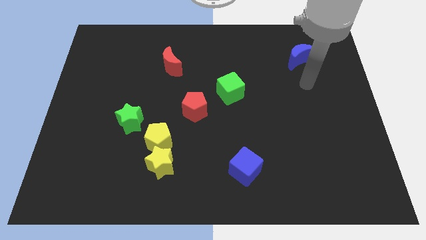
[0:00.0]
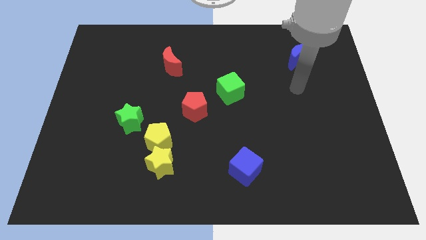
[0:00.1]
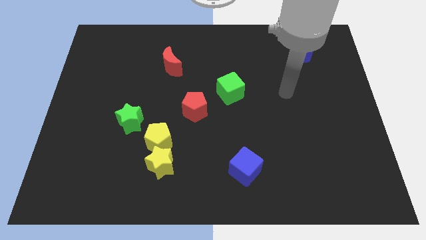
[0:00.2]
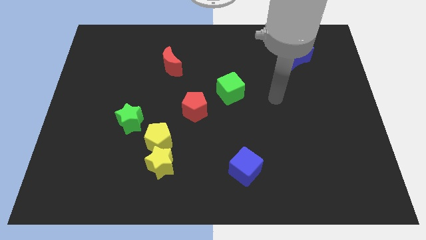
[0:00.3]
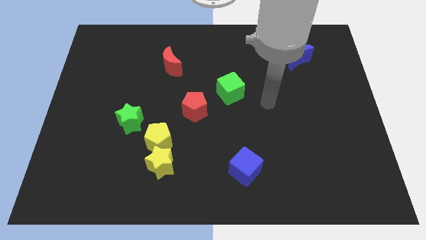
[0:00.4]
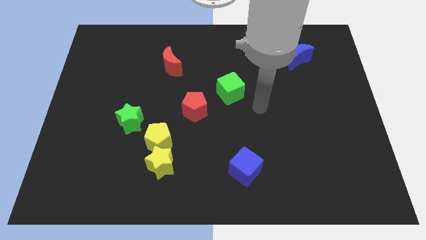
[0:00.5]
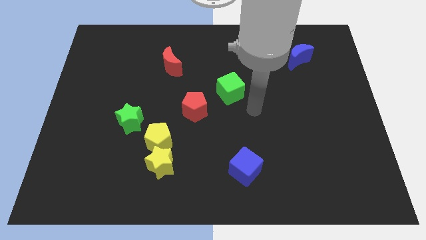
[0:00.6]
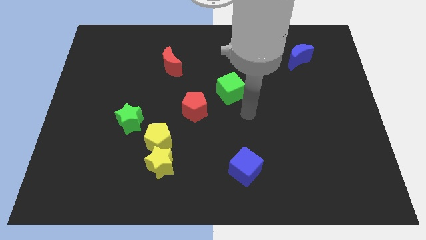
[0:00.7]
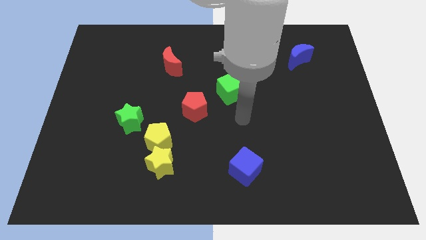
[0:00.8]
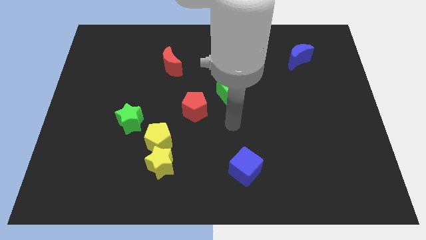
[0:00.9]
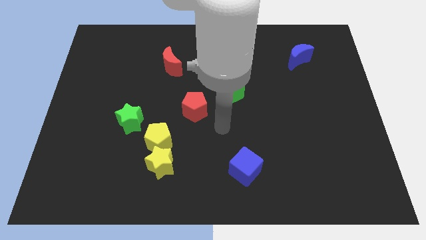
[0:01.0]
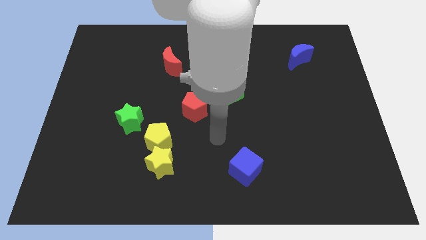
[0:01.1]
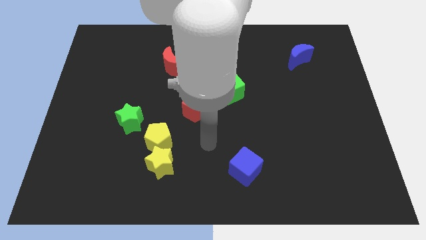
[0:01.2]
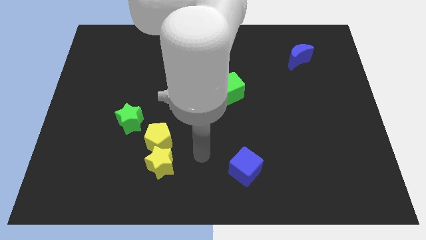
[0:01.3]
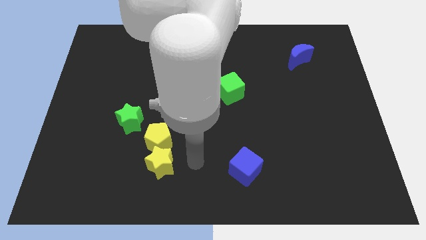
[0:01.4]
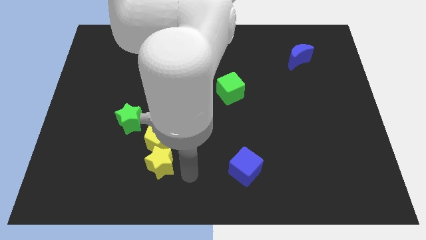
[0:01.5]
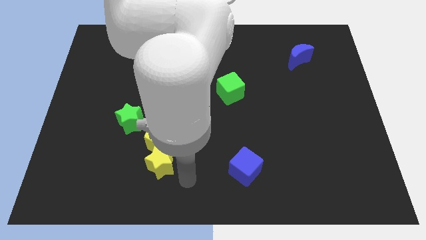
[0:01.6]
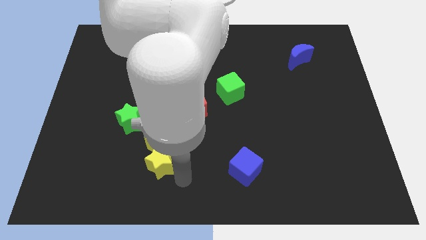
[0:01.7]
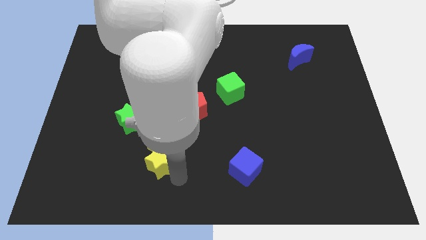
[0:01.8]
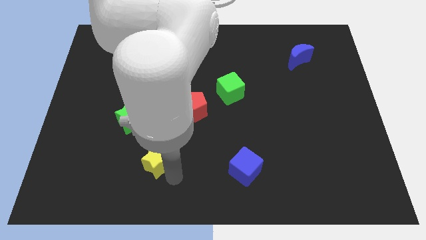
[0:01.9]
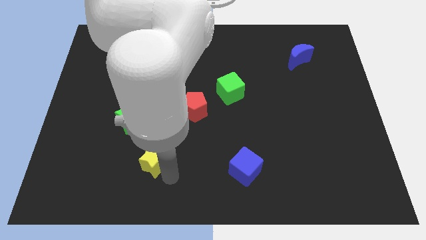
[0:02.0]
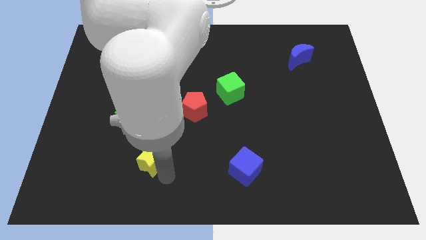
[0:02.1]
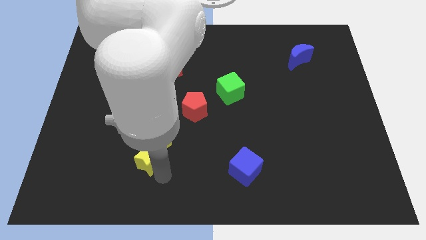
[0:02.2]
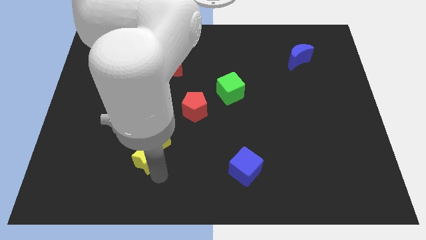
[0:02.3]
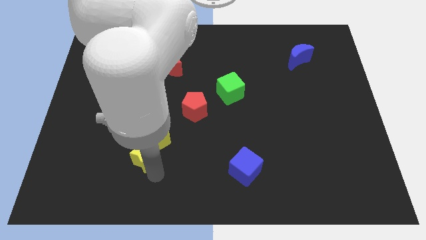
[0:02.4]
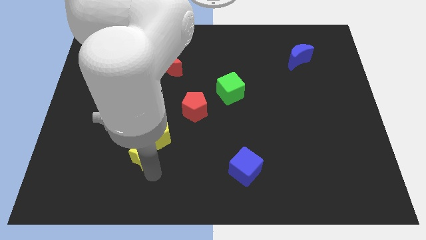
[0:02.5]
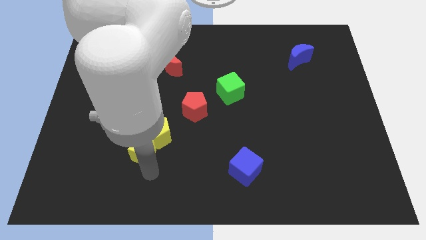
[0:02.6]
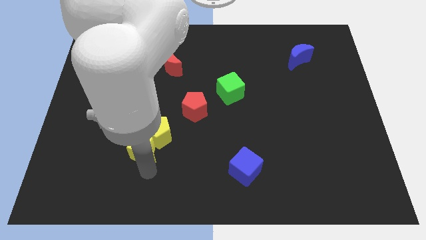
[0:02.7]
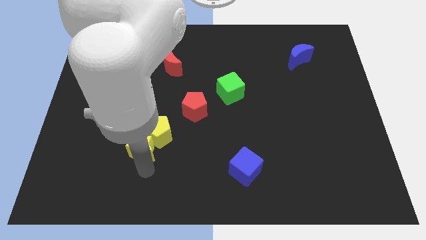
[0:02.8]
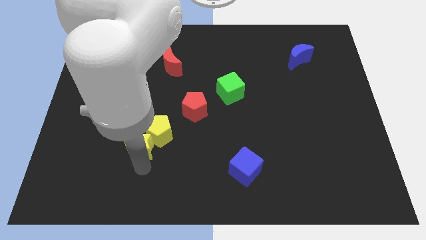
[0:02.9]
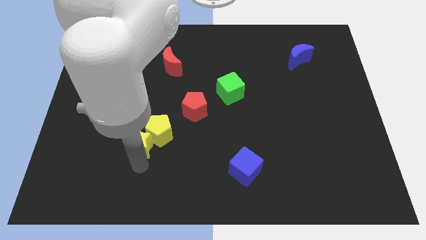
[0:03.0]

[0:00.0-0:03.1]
slide the yellow star upwards and to the left a little

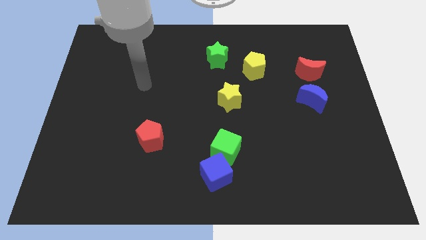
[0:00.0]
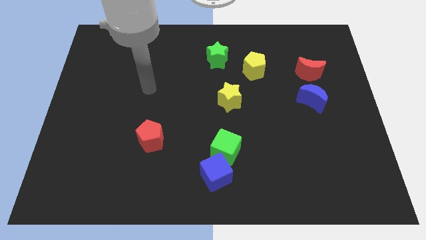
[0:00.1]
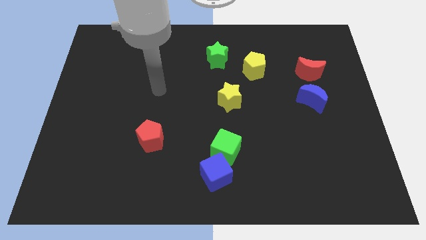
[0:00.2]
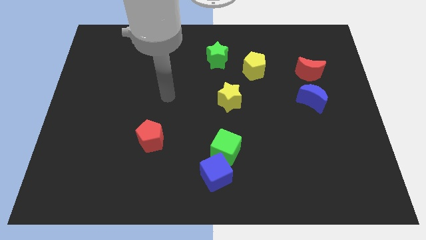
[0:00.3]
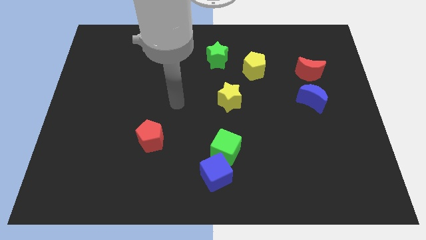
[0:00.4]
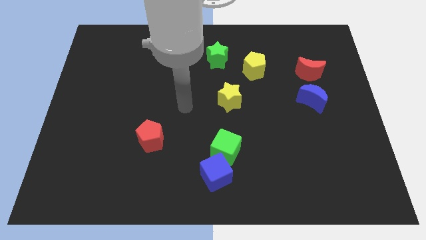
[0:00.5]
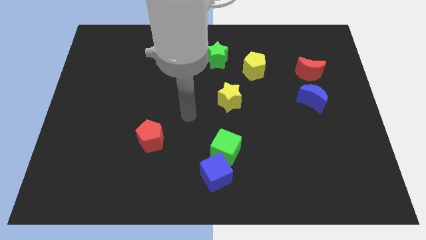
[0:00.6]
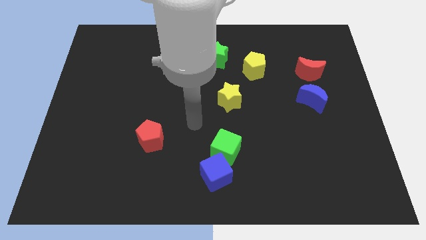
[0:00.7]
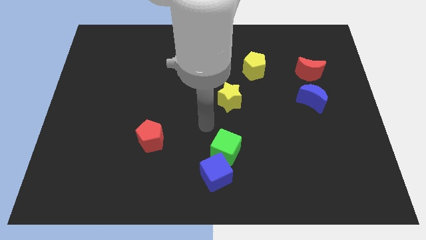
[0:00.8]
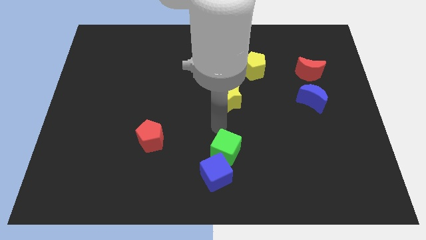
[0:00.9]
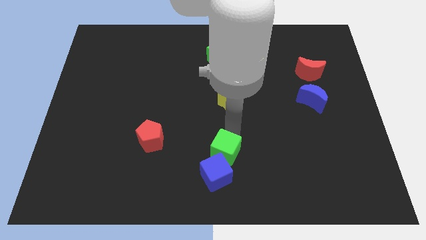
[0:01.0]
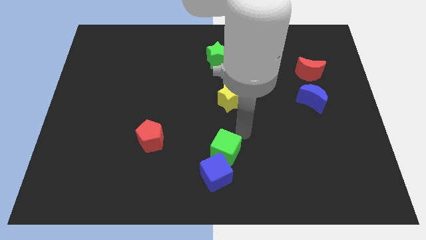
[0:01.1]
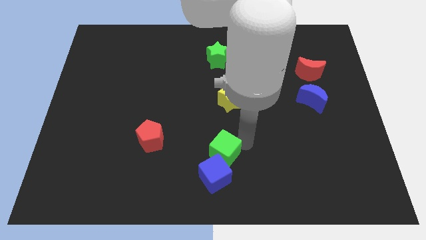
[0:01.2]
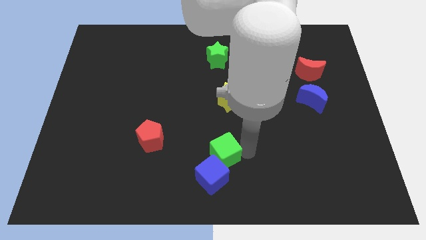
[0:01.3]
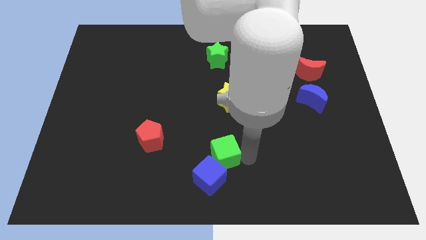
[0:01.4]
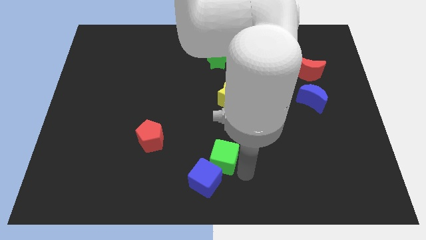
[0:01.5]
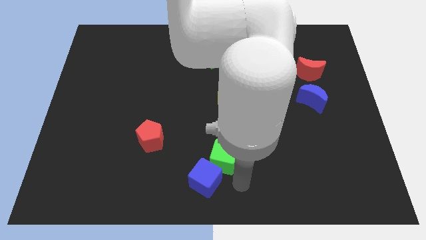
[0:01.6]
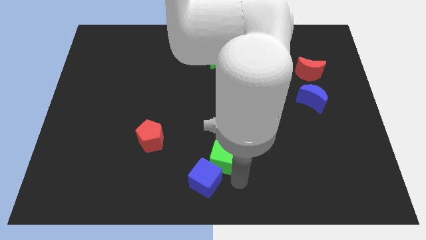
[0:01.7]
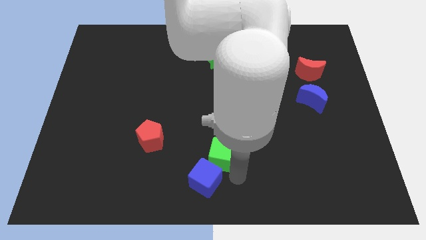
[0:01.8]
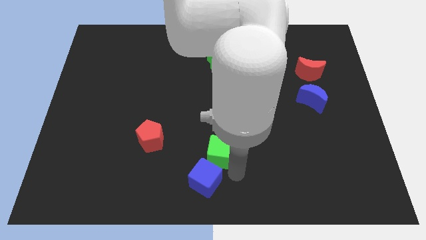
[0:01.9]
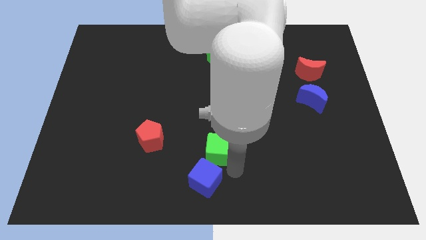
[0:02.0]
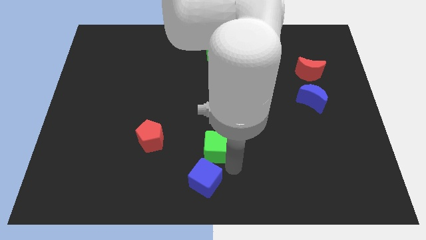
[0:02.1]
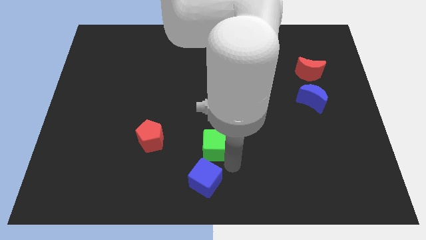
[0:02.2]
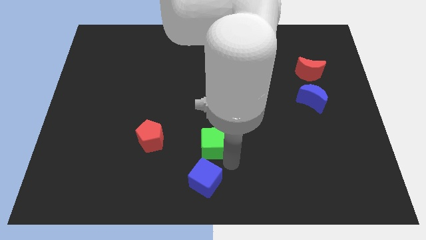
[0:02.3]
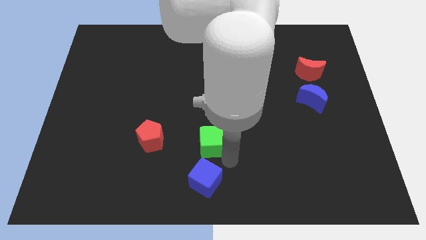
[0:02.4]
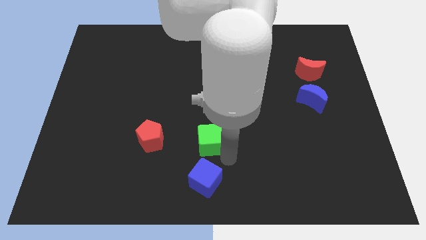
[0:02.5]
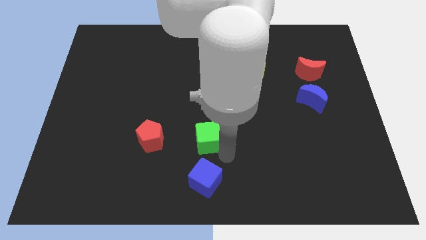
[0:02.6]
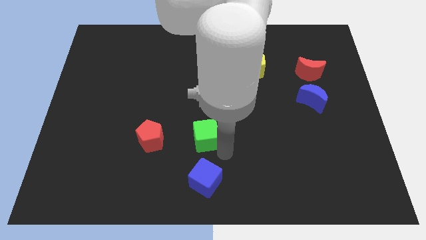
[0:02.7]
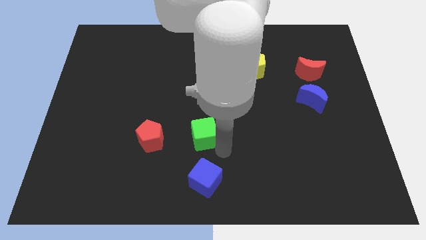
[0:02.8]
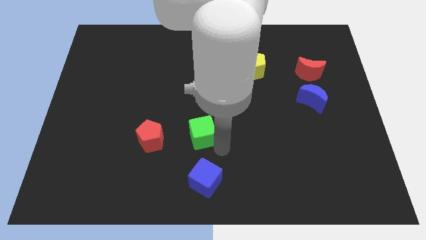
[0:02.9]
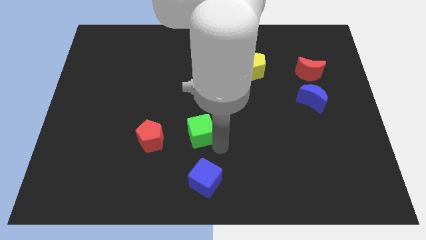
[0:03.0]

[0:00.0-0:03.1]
move the green cube a little bit diagonally upwards and left

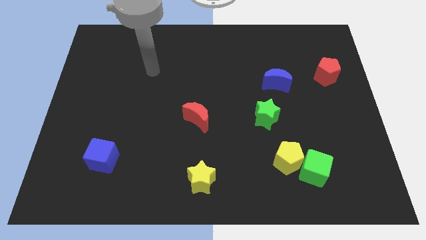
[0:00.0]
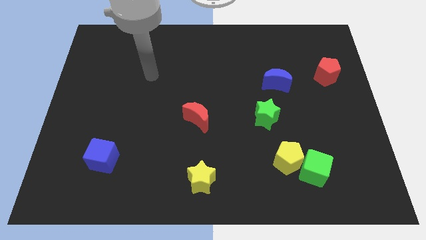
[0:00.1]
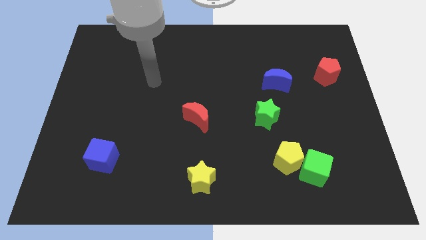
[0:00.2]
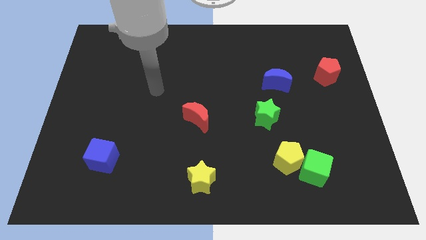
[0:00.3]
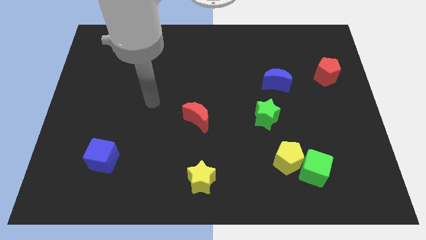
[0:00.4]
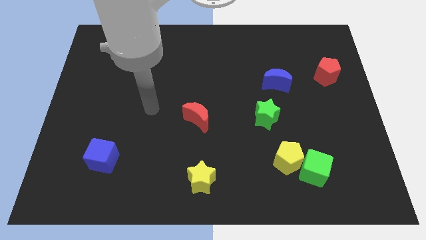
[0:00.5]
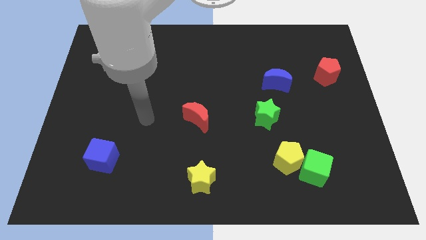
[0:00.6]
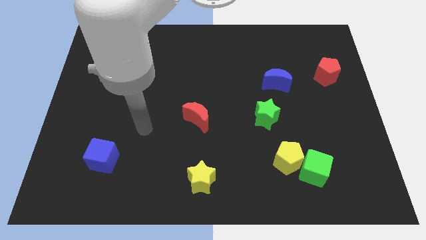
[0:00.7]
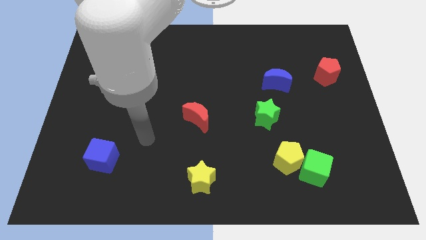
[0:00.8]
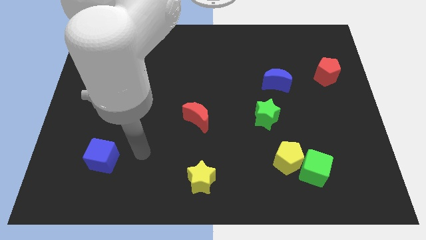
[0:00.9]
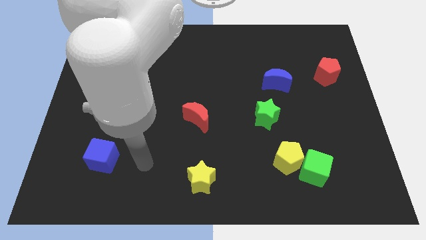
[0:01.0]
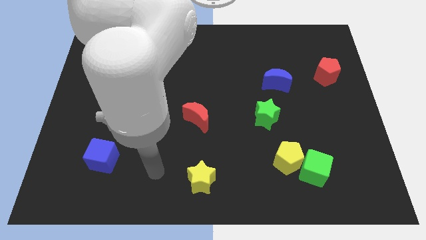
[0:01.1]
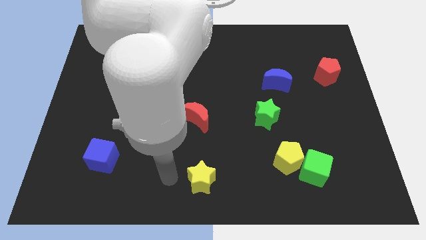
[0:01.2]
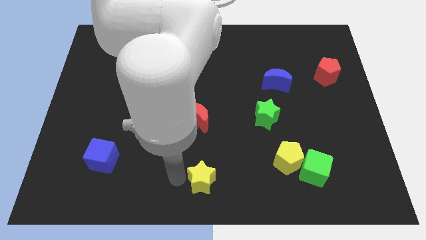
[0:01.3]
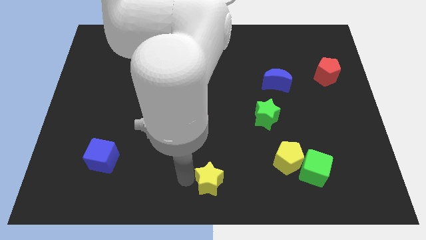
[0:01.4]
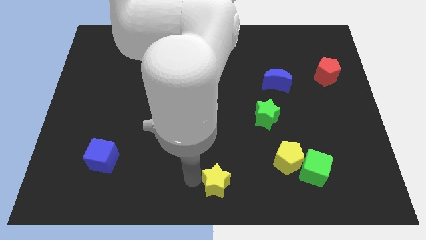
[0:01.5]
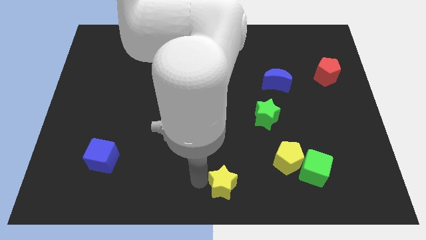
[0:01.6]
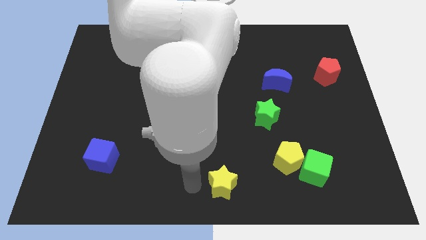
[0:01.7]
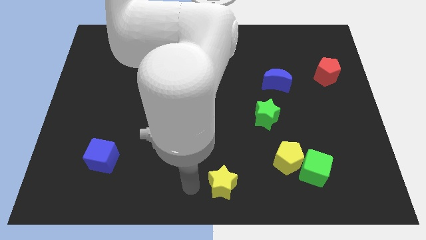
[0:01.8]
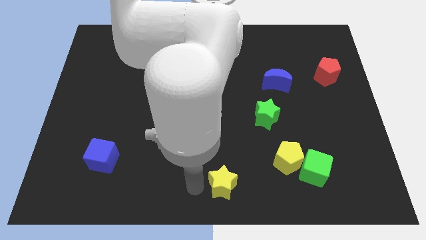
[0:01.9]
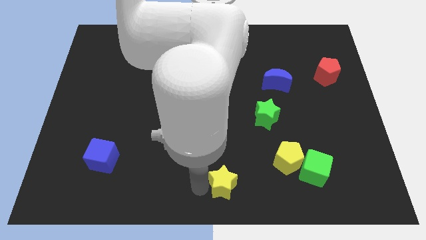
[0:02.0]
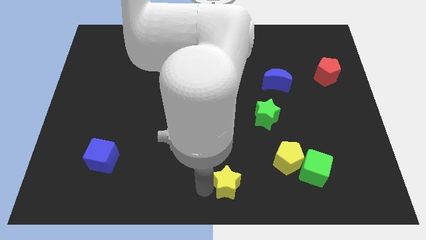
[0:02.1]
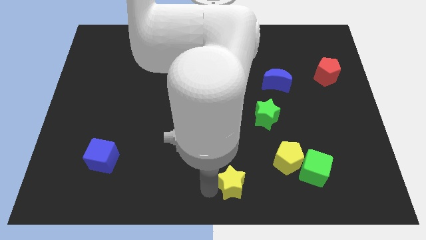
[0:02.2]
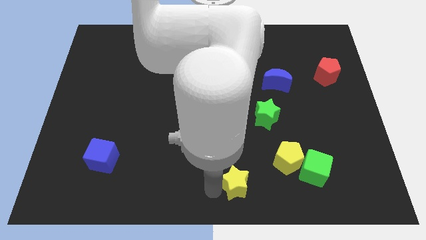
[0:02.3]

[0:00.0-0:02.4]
move the yellow star to the right slightly
